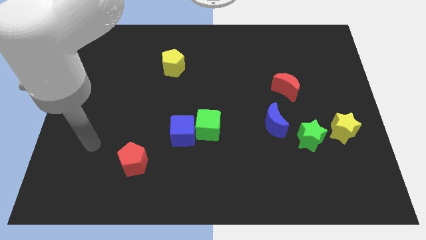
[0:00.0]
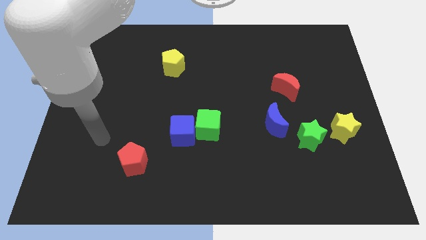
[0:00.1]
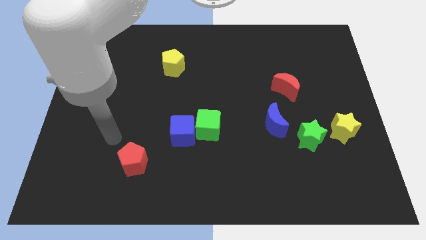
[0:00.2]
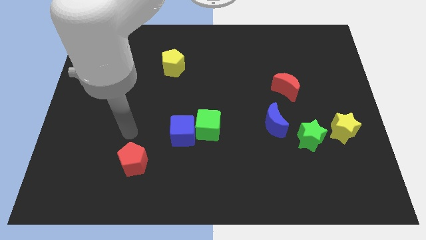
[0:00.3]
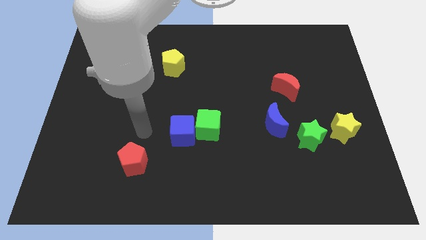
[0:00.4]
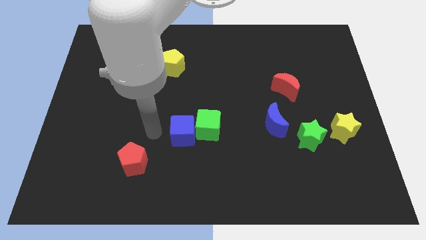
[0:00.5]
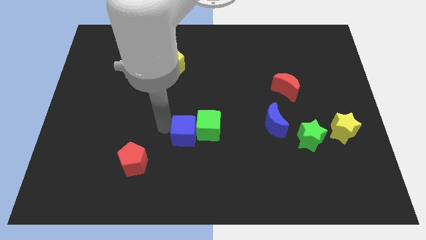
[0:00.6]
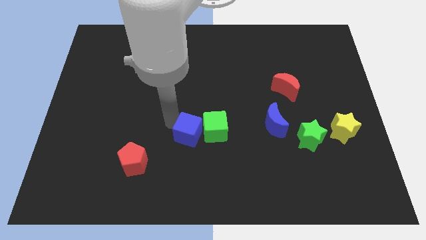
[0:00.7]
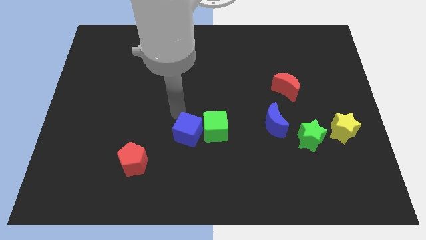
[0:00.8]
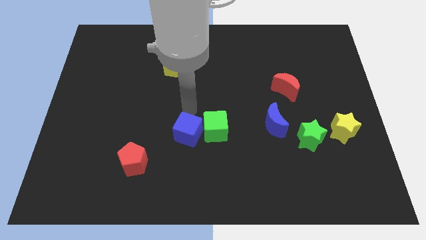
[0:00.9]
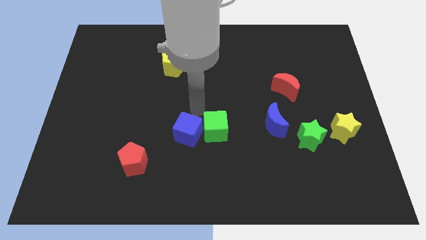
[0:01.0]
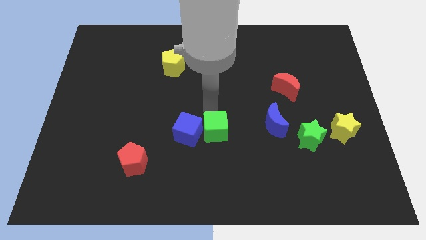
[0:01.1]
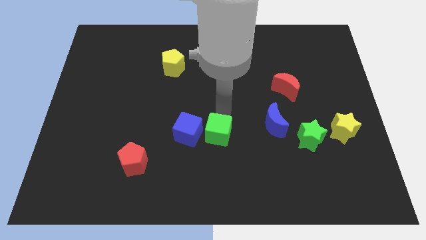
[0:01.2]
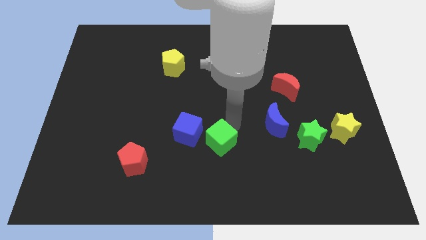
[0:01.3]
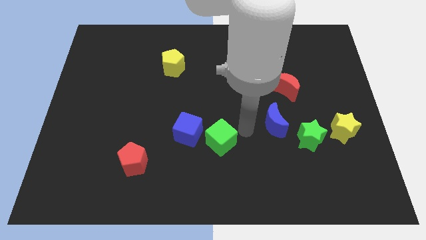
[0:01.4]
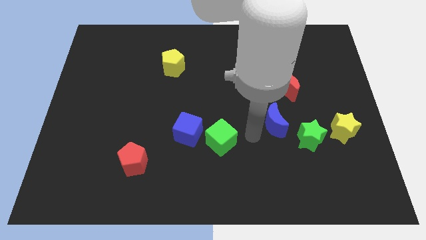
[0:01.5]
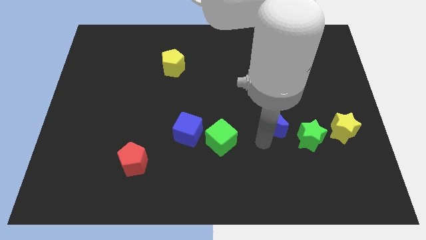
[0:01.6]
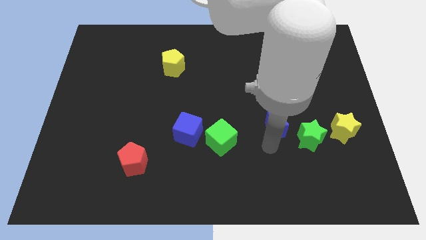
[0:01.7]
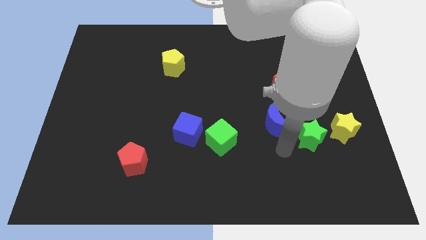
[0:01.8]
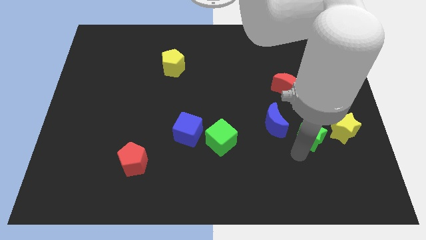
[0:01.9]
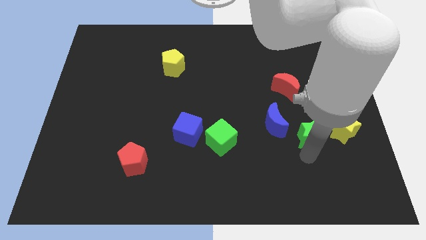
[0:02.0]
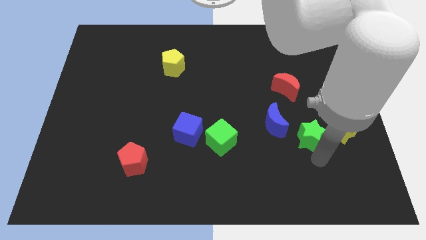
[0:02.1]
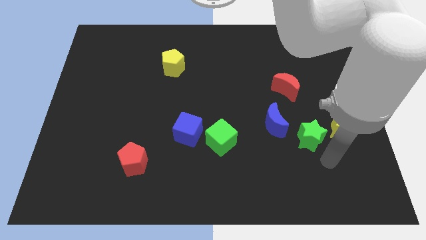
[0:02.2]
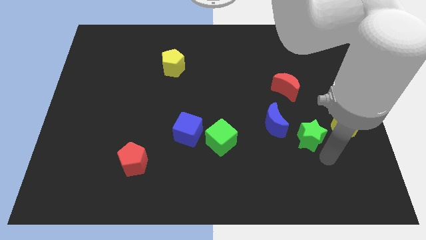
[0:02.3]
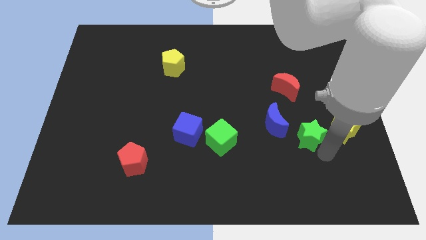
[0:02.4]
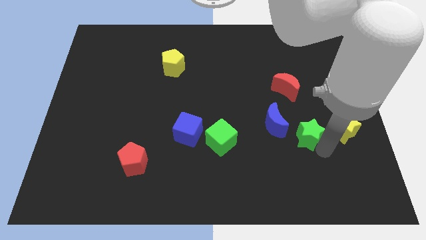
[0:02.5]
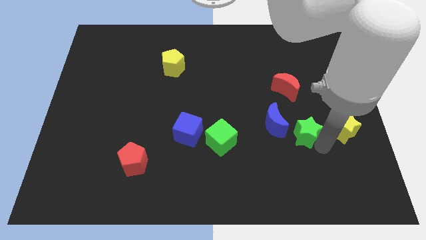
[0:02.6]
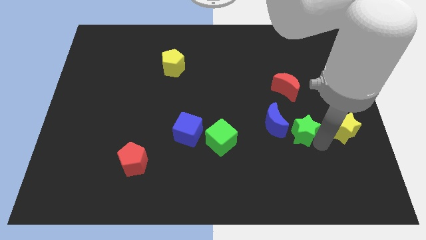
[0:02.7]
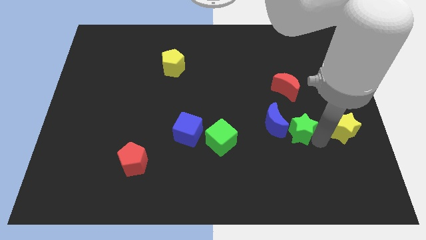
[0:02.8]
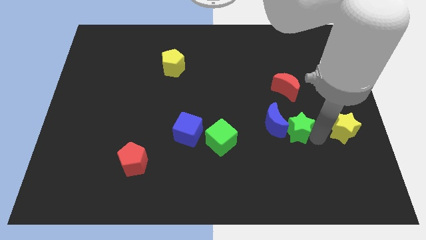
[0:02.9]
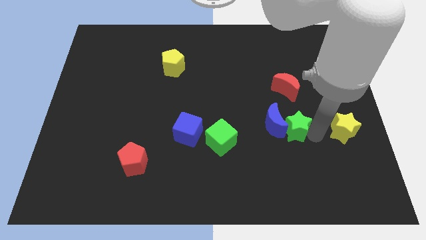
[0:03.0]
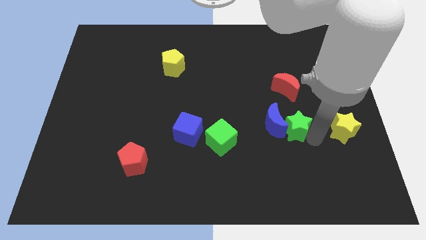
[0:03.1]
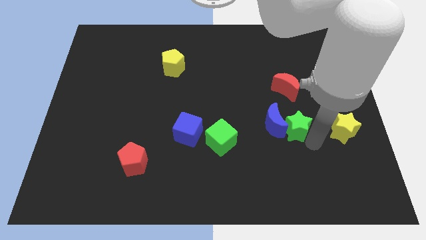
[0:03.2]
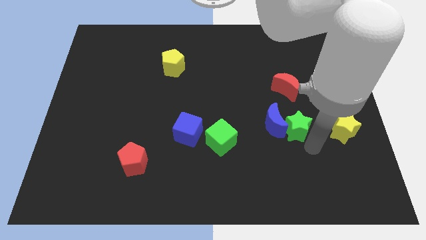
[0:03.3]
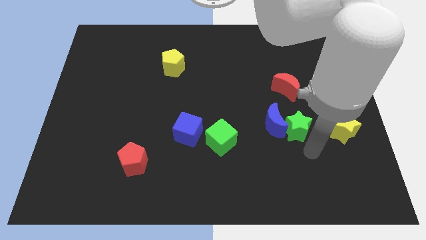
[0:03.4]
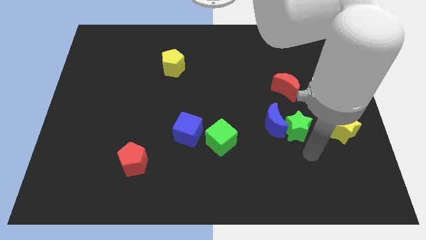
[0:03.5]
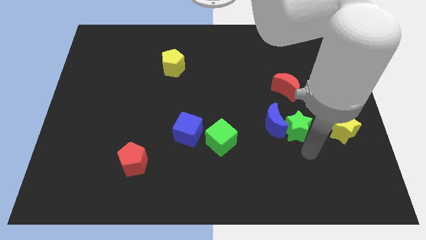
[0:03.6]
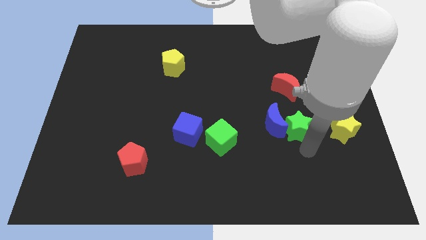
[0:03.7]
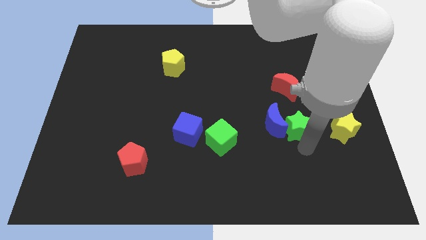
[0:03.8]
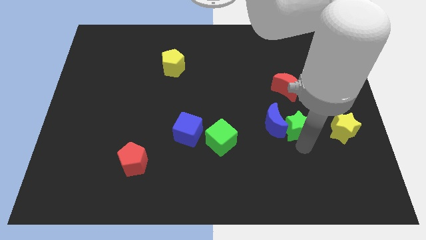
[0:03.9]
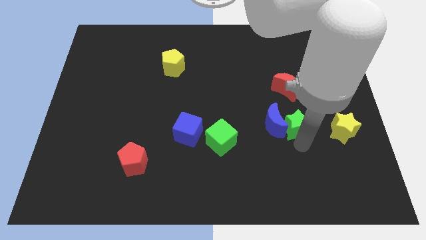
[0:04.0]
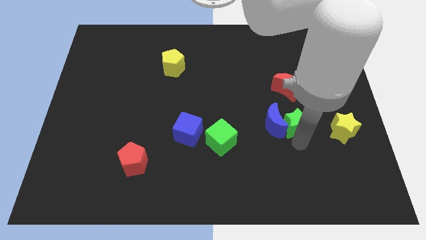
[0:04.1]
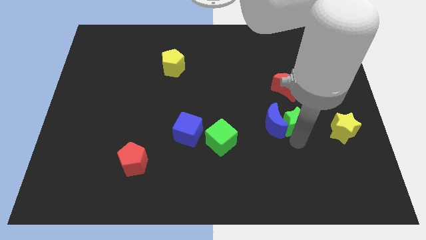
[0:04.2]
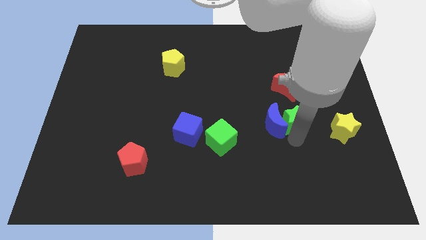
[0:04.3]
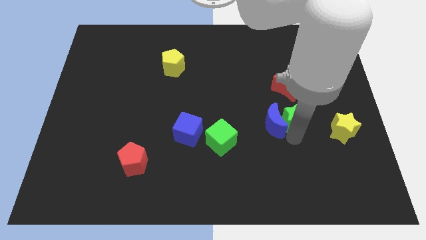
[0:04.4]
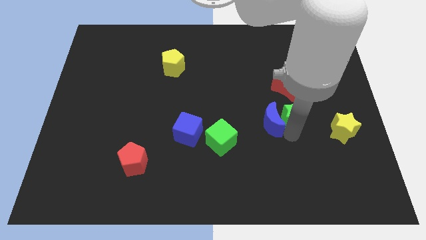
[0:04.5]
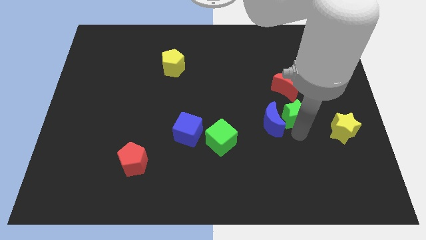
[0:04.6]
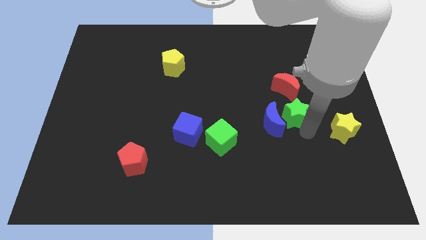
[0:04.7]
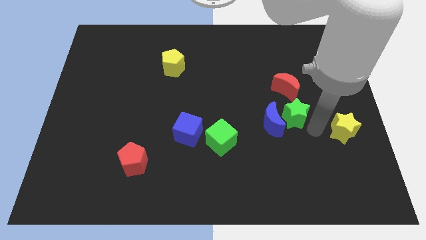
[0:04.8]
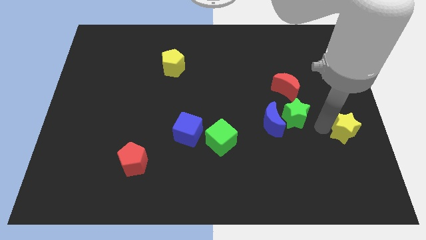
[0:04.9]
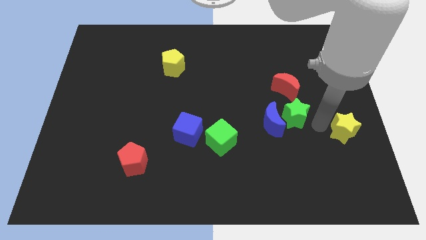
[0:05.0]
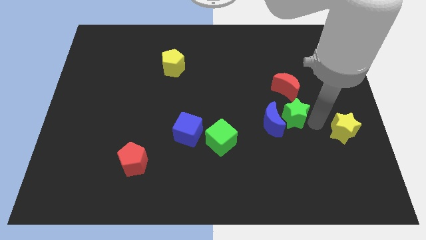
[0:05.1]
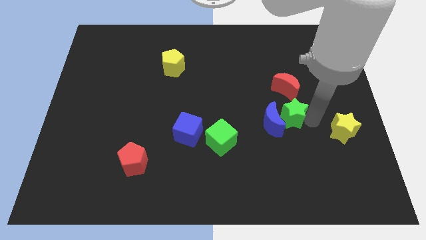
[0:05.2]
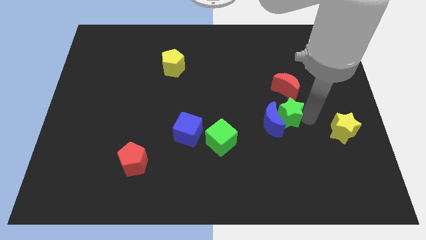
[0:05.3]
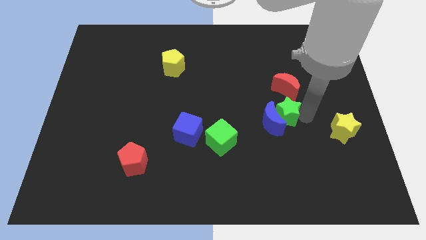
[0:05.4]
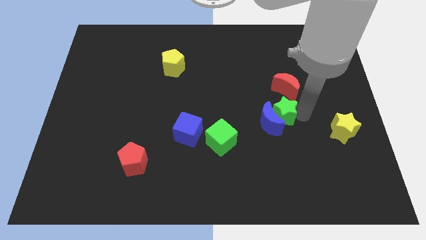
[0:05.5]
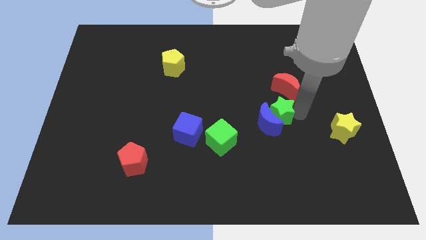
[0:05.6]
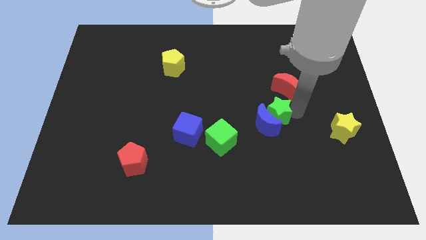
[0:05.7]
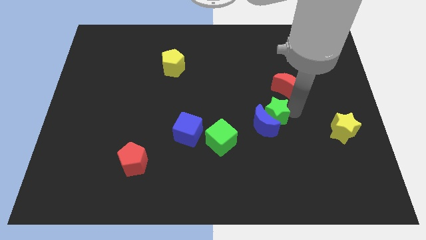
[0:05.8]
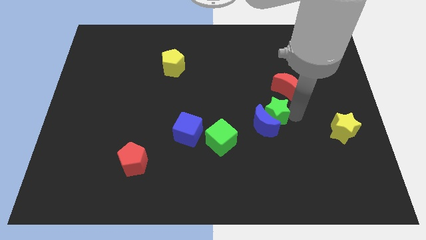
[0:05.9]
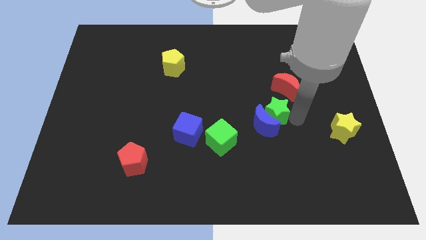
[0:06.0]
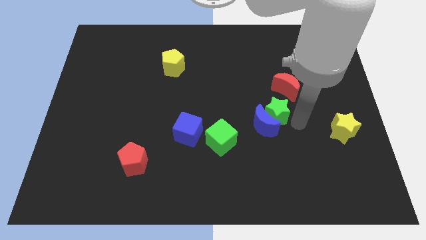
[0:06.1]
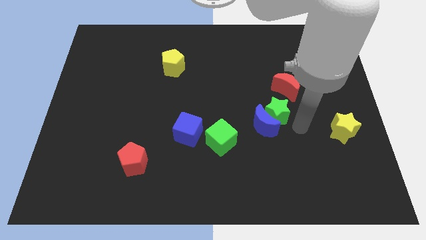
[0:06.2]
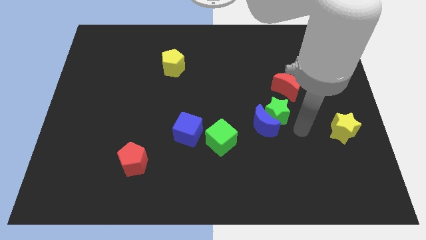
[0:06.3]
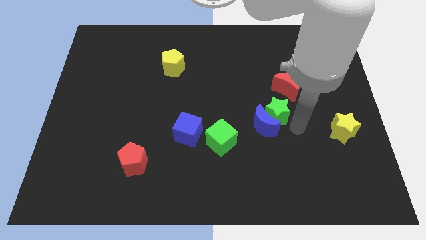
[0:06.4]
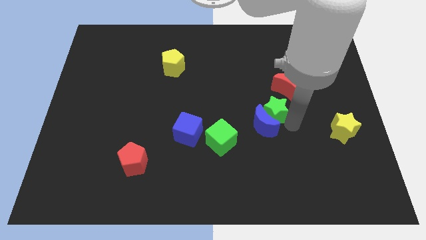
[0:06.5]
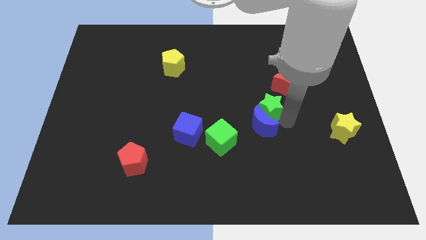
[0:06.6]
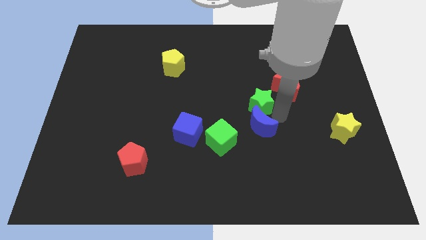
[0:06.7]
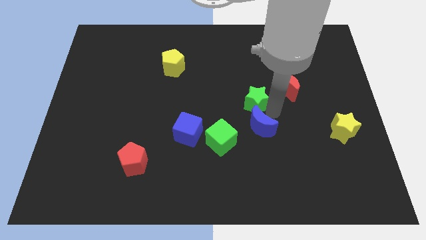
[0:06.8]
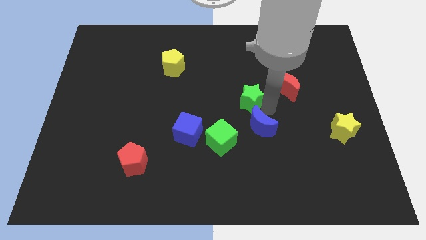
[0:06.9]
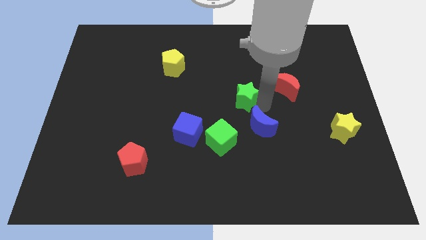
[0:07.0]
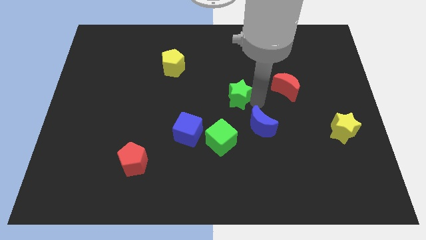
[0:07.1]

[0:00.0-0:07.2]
push the green star above the green cube
